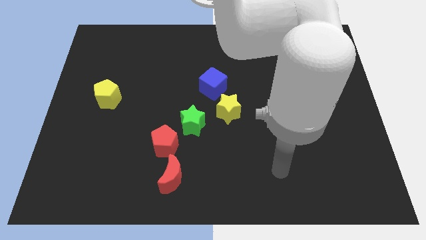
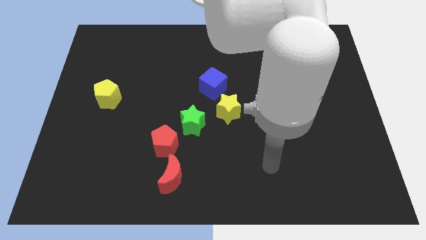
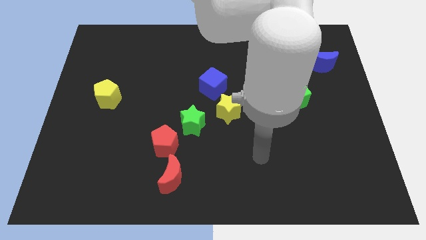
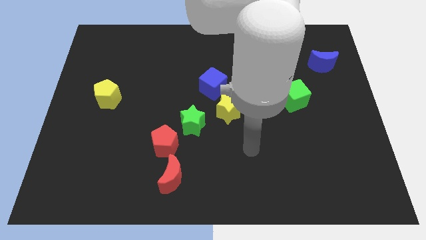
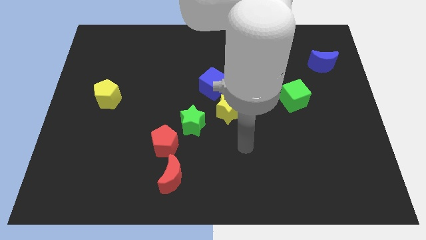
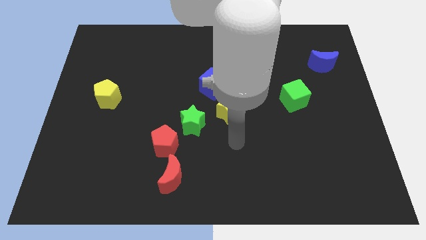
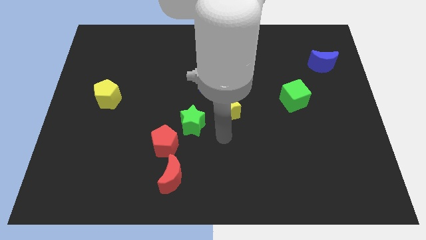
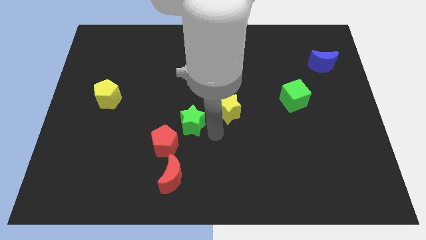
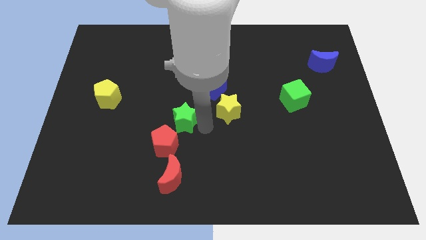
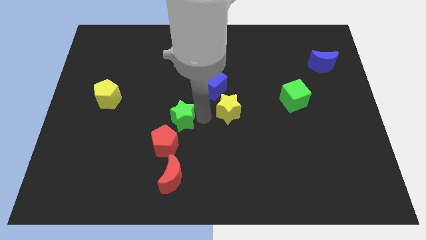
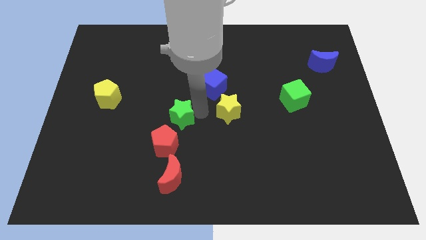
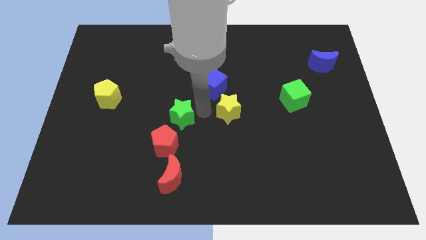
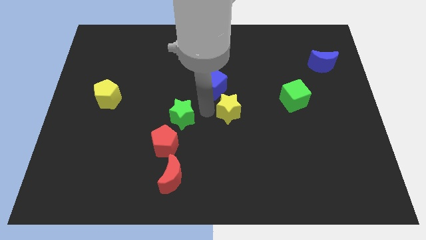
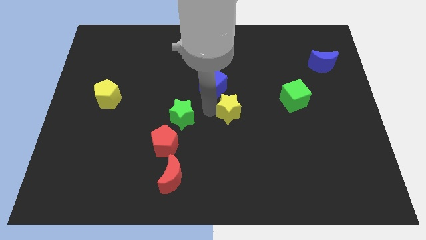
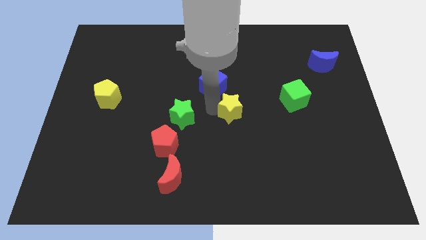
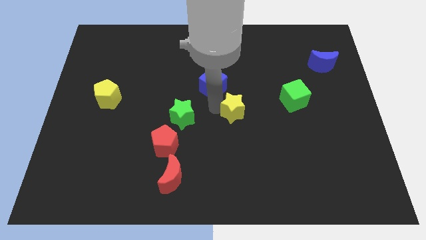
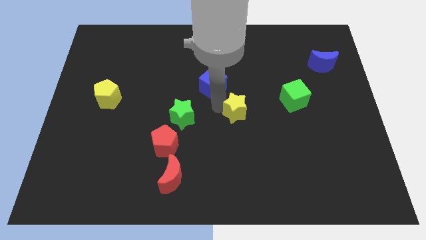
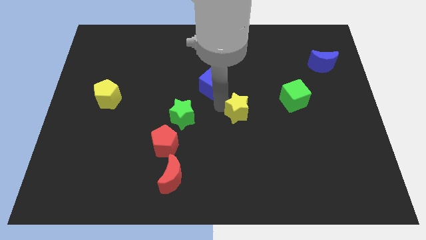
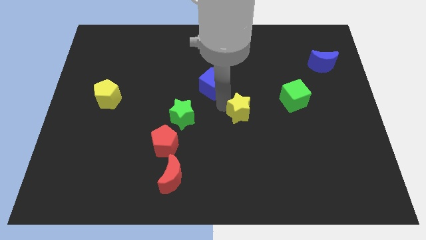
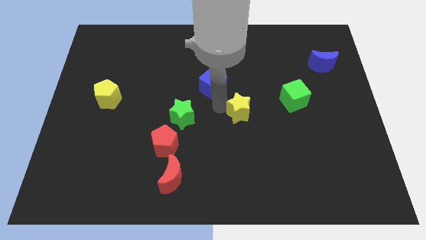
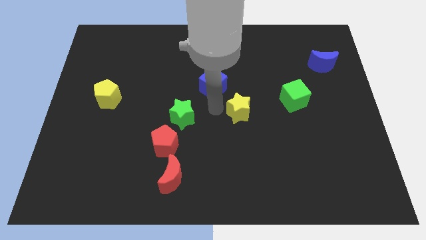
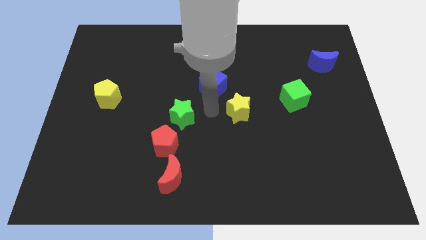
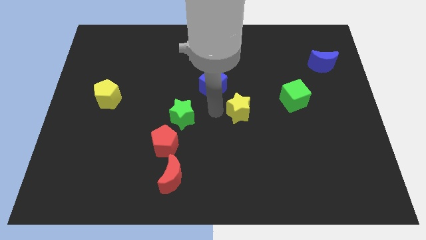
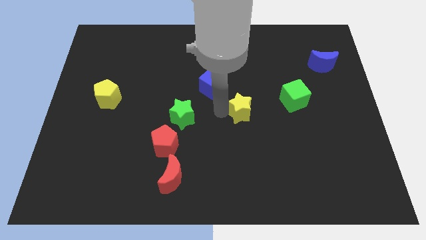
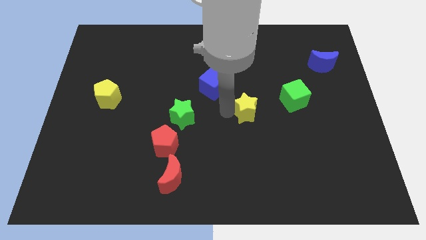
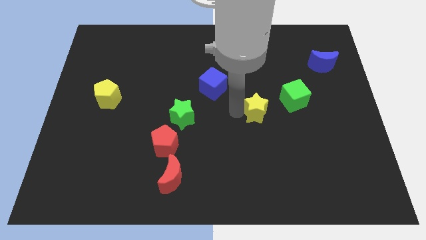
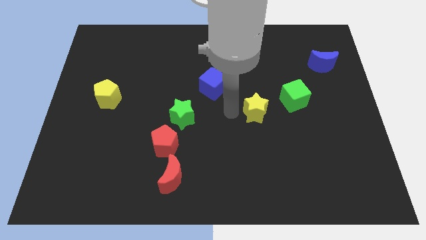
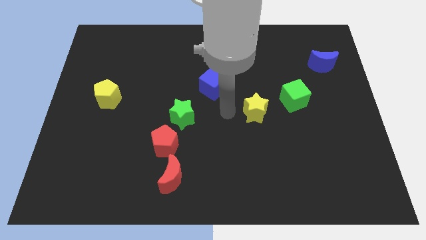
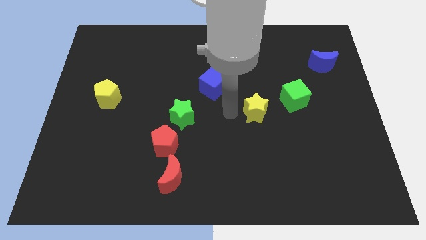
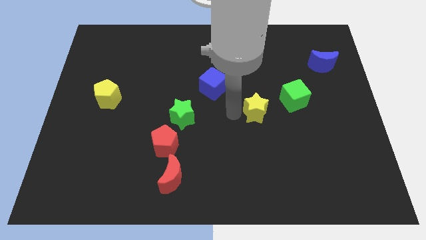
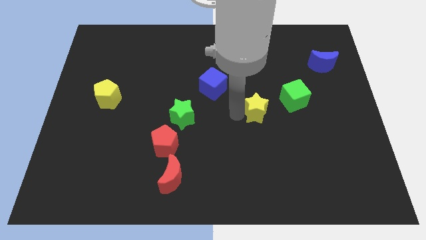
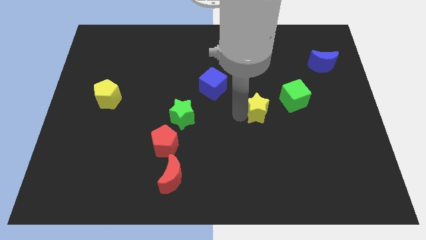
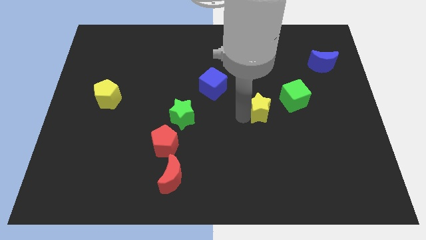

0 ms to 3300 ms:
push the yellow star right a little

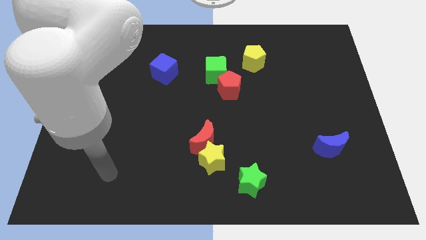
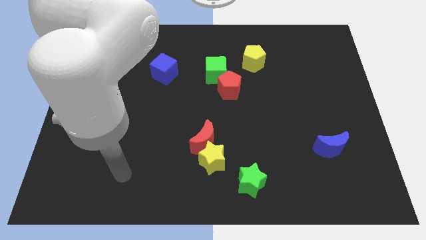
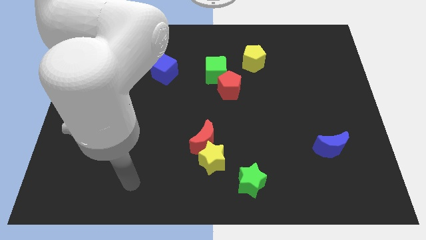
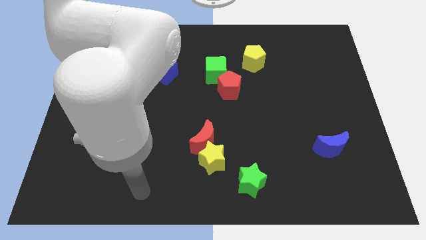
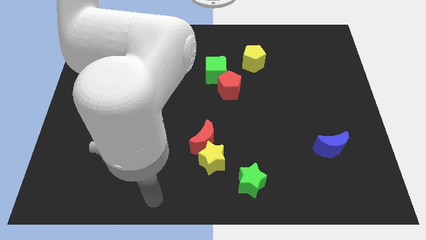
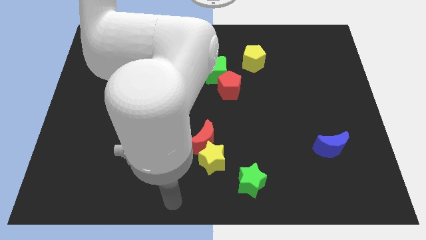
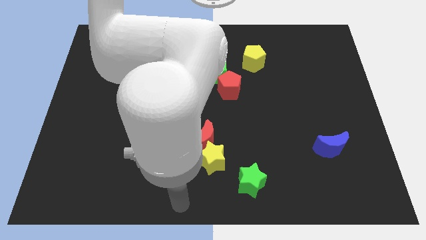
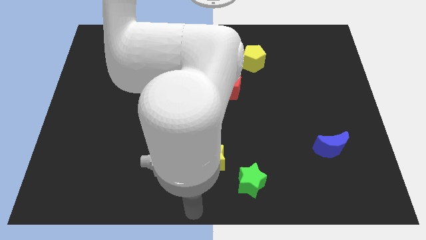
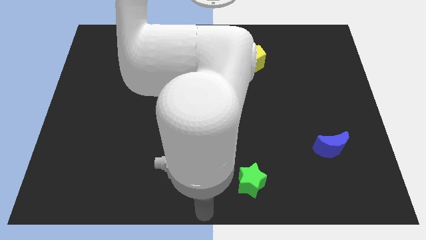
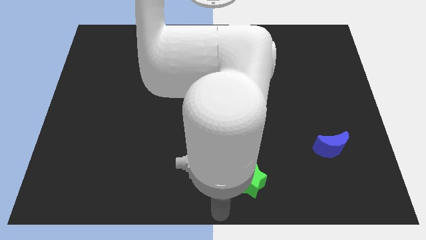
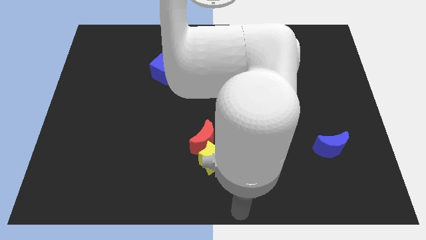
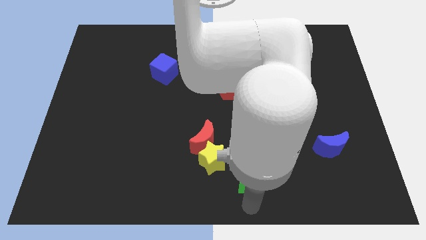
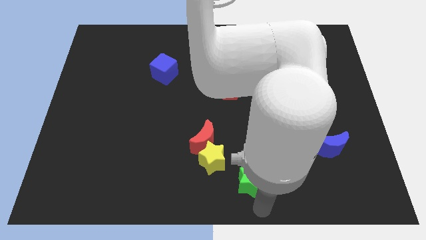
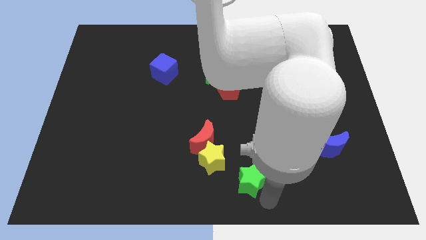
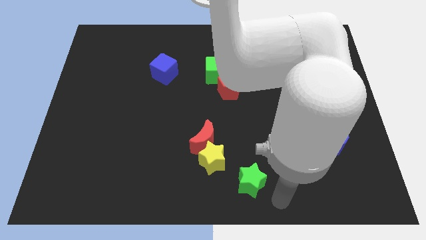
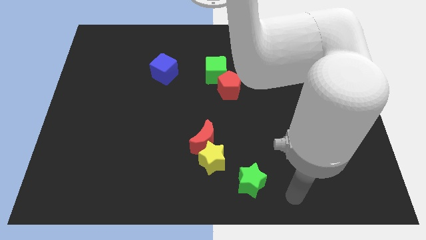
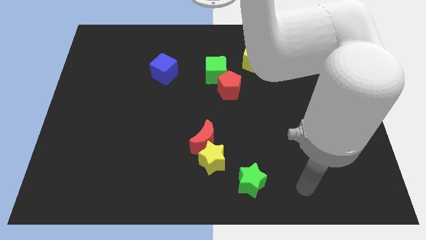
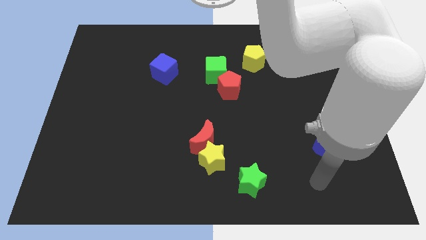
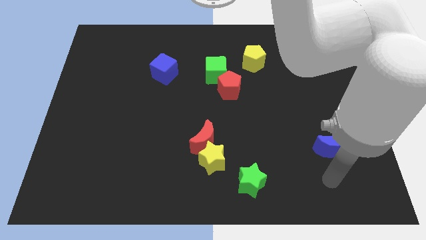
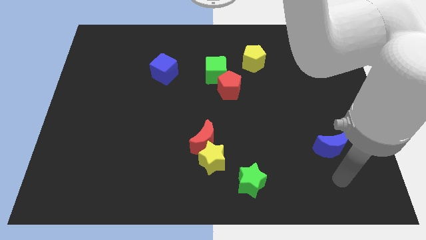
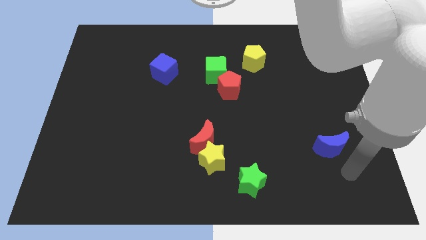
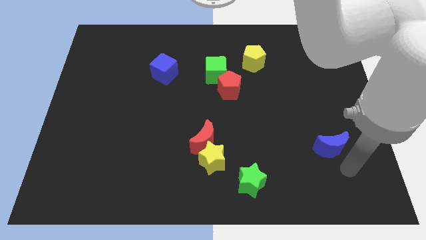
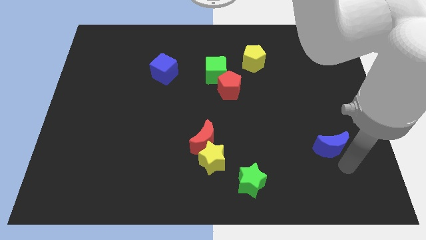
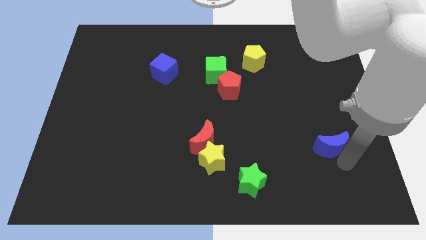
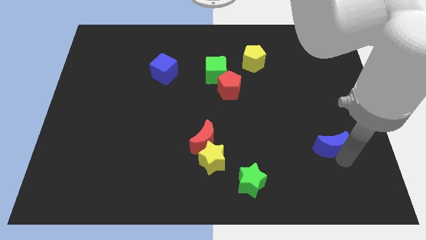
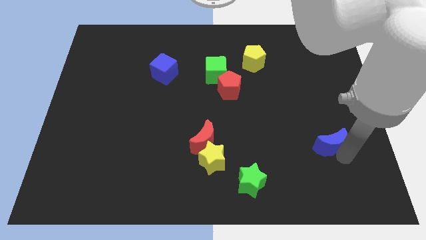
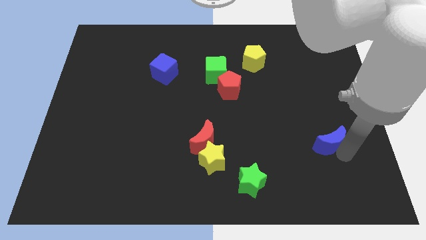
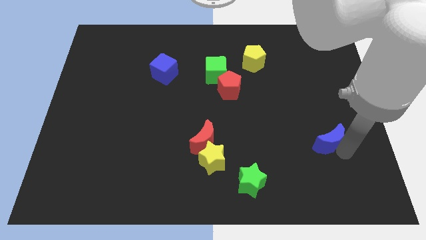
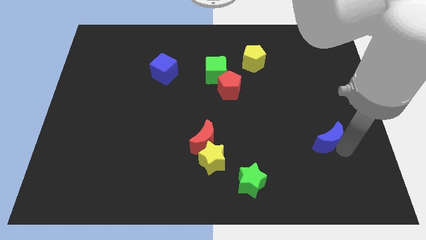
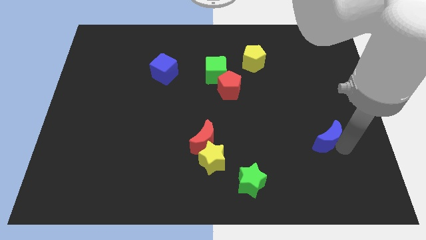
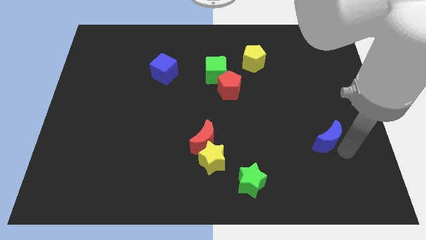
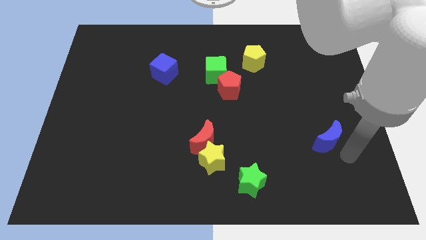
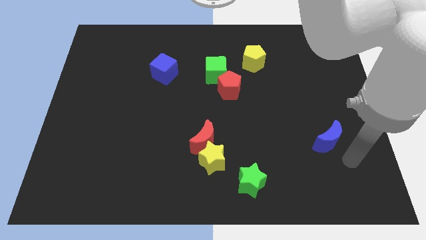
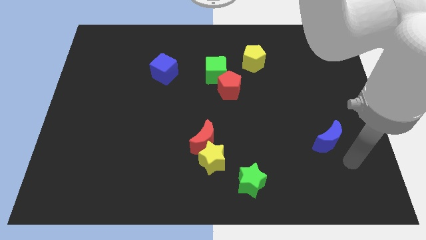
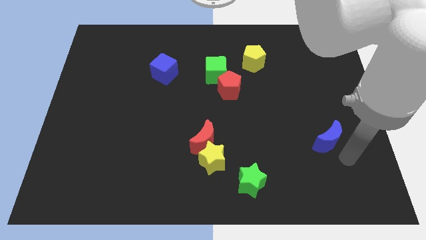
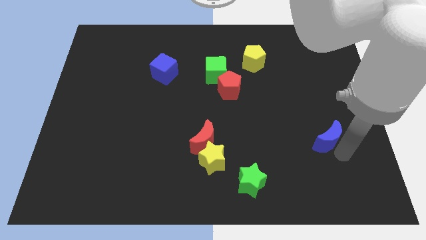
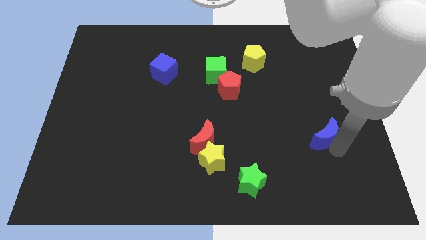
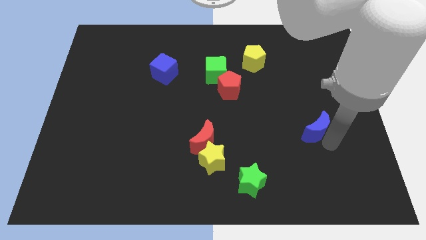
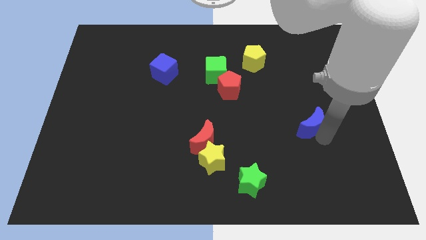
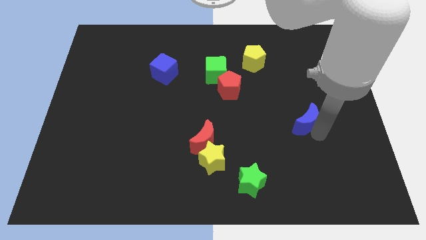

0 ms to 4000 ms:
move the blue moon a bit upwards and left diagonally

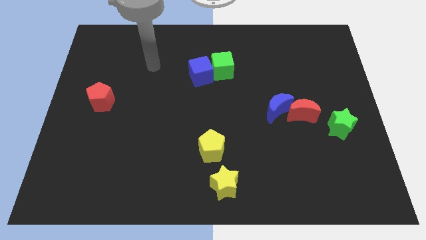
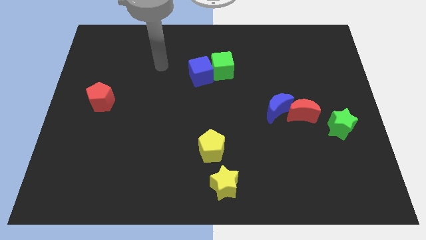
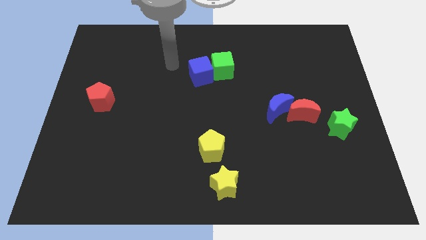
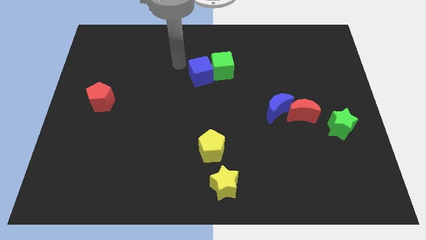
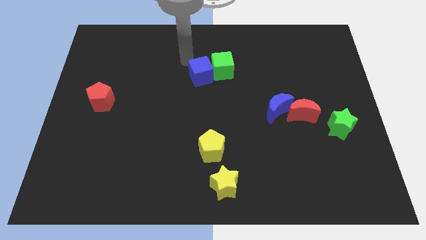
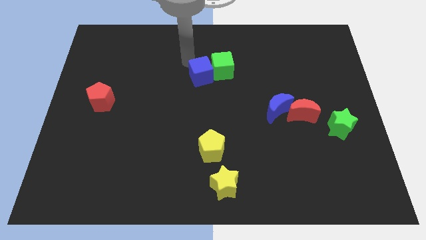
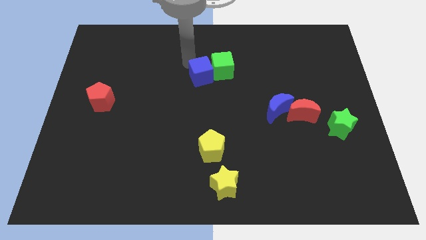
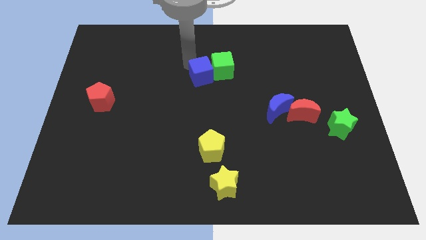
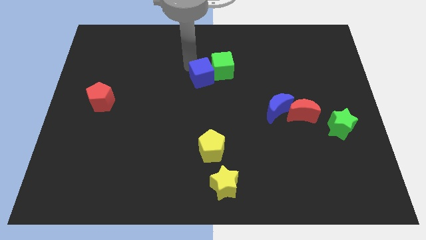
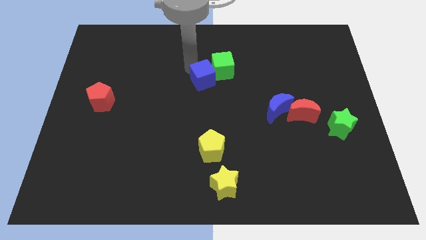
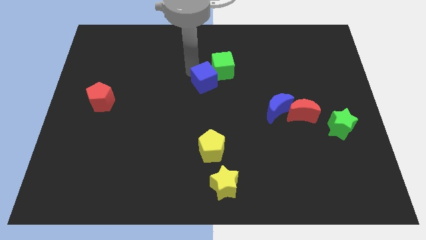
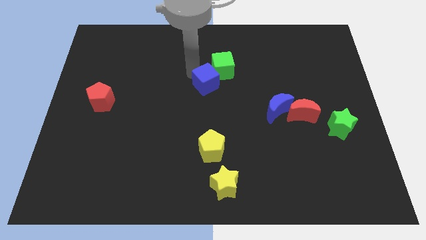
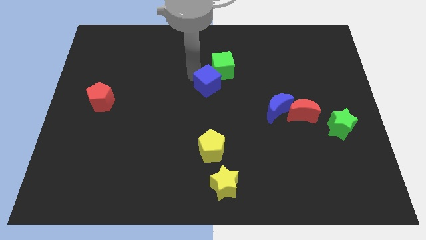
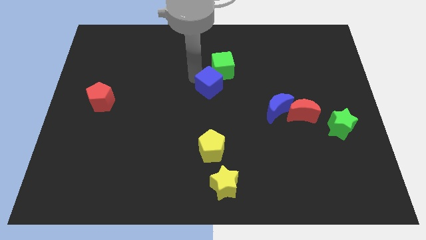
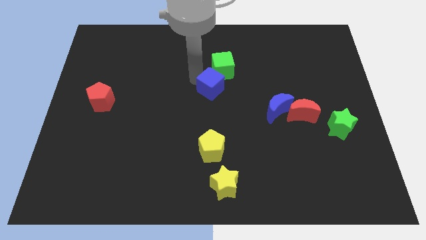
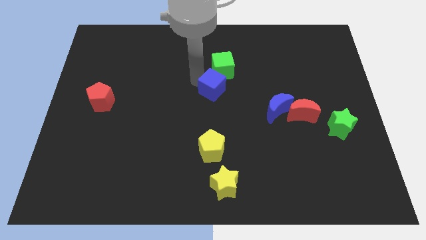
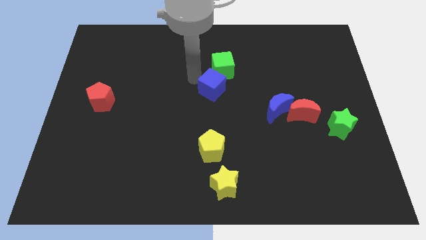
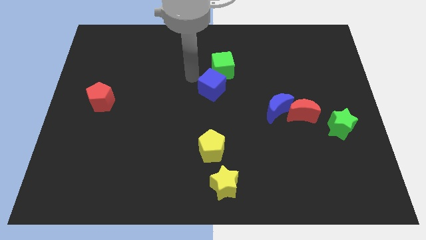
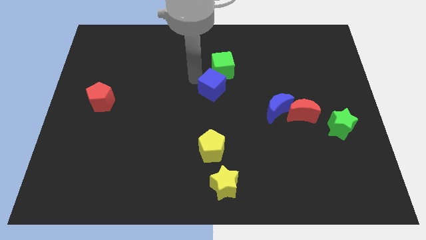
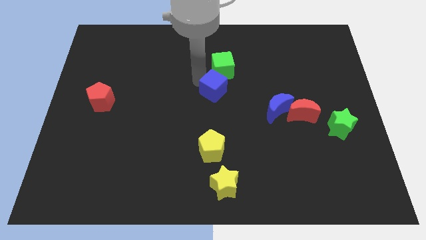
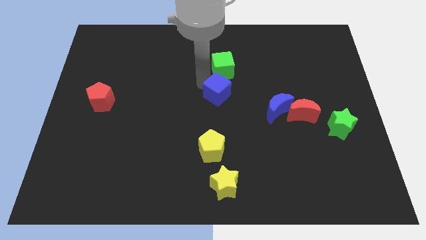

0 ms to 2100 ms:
slightly move the blue cube downwards and right
